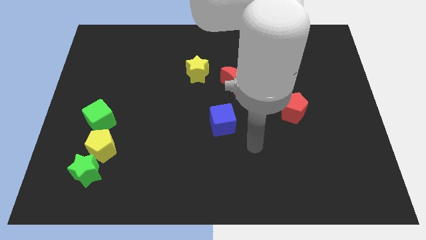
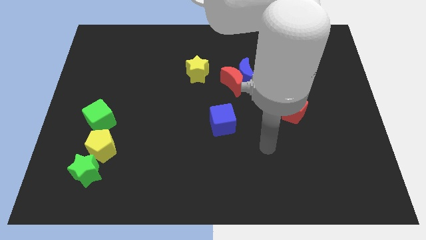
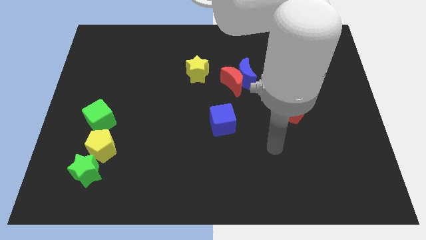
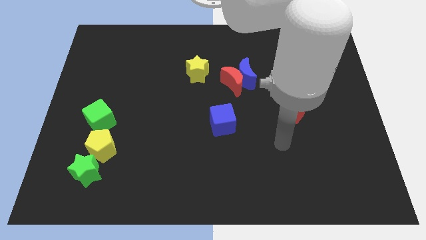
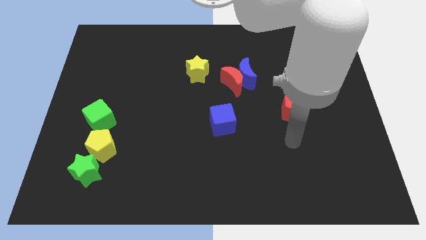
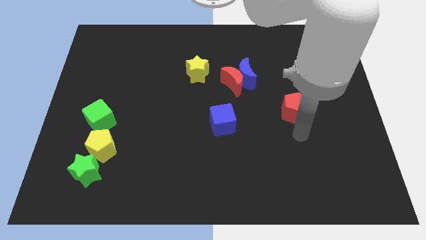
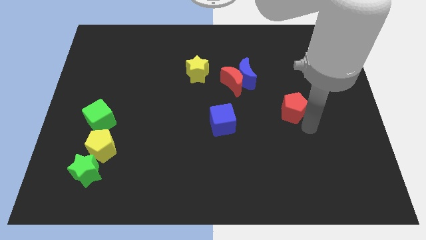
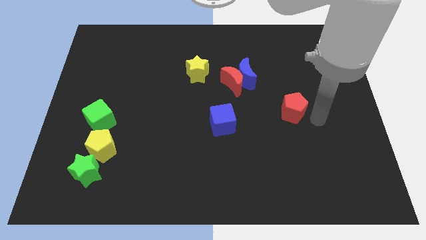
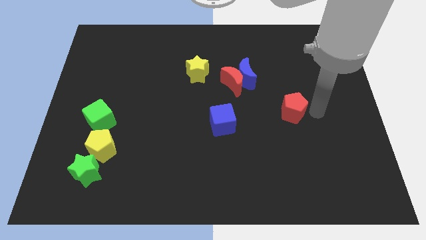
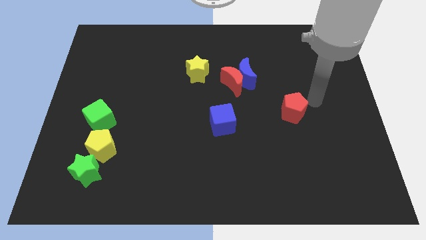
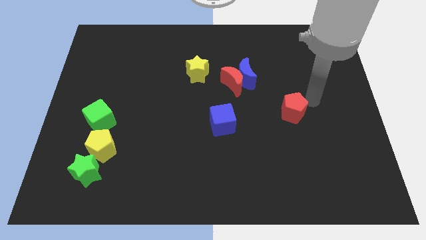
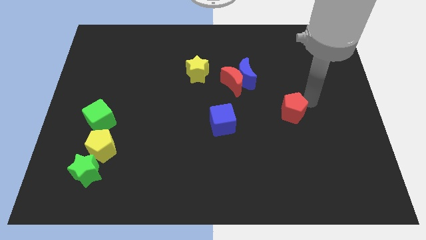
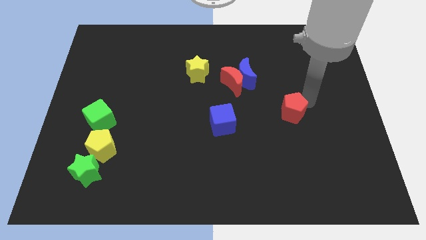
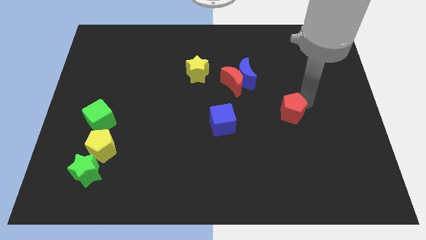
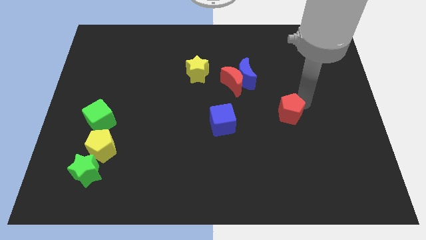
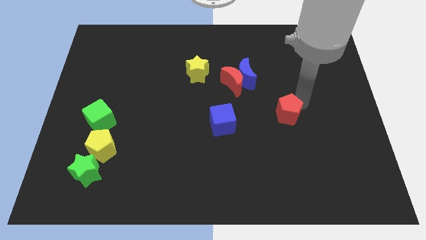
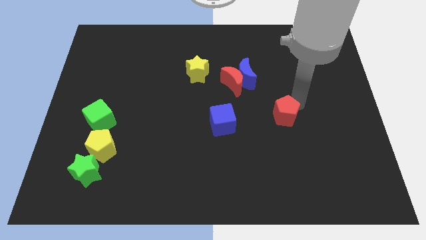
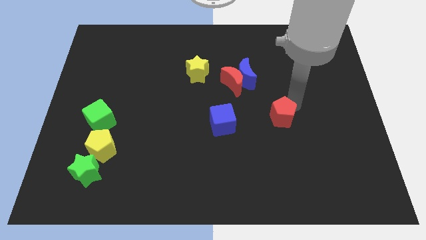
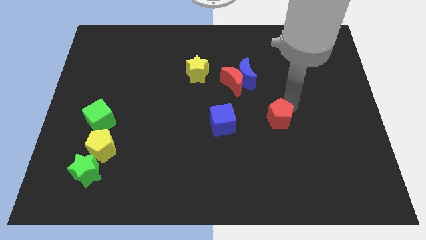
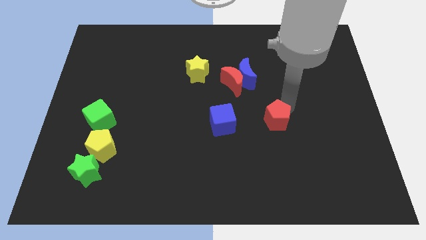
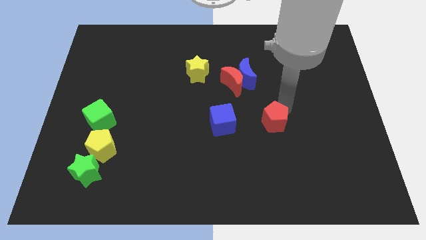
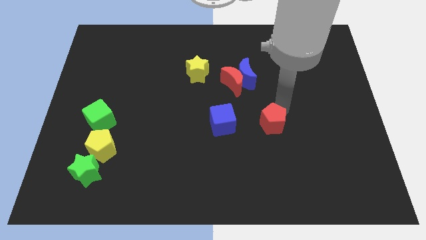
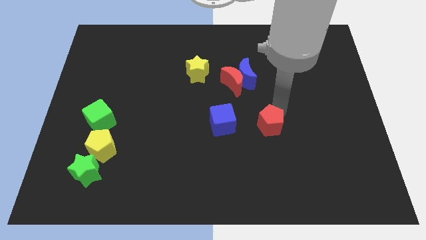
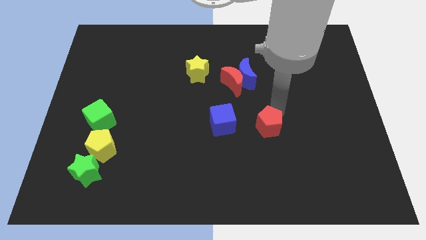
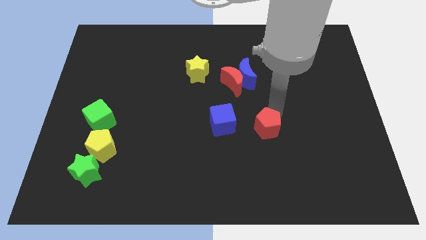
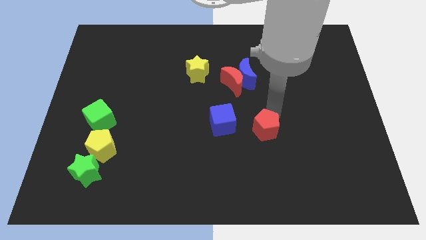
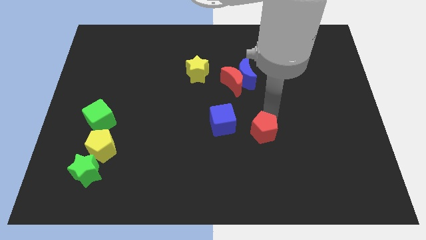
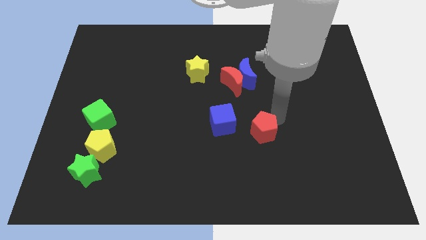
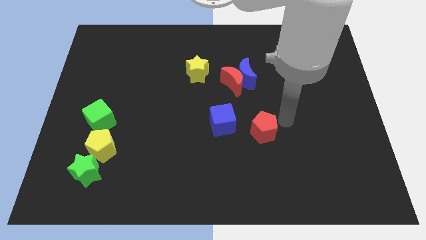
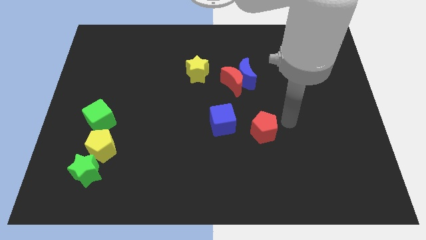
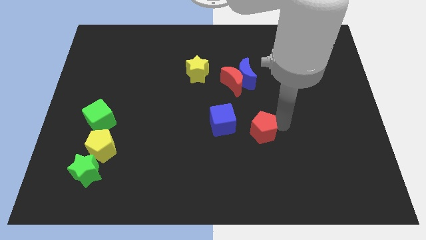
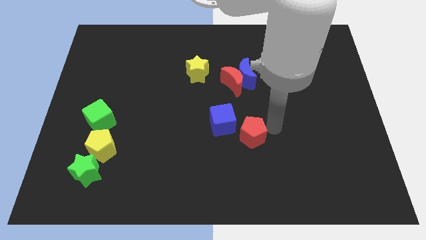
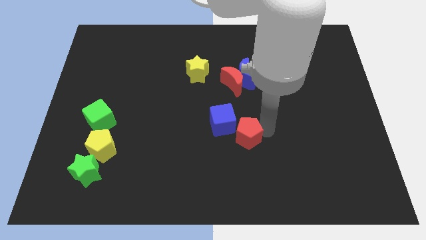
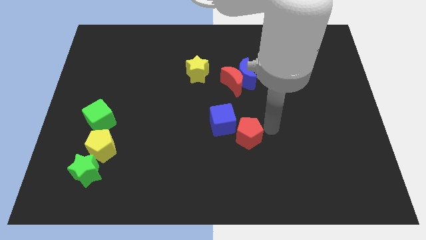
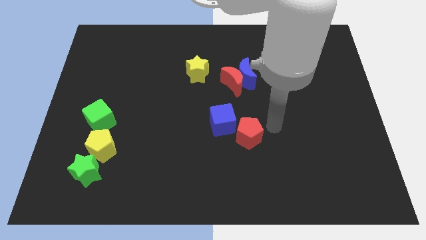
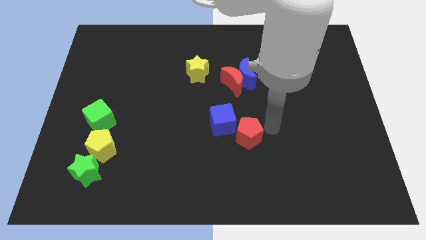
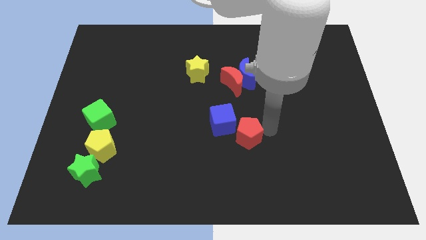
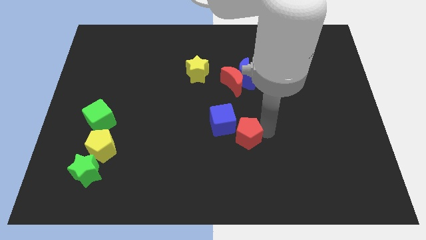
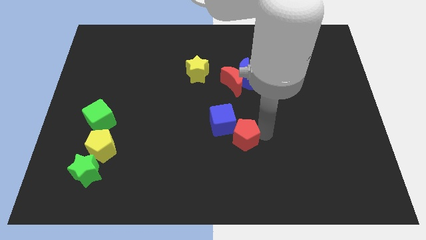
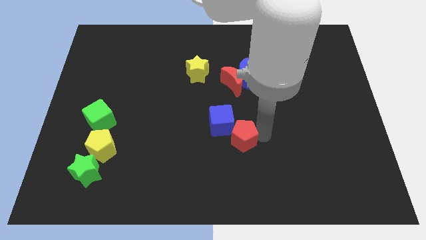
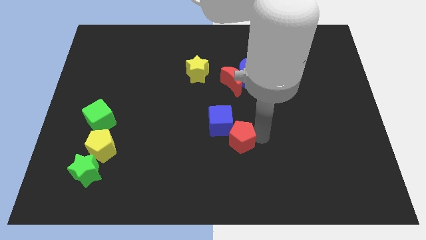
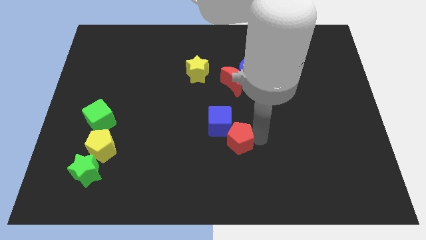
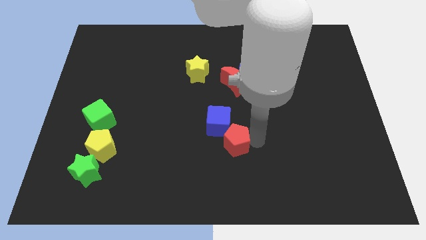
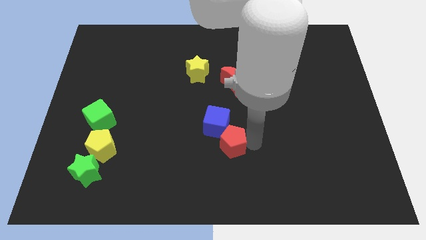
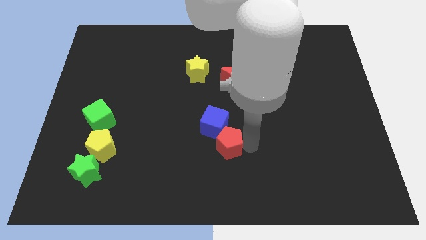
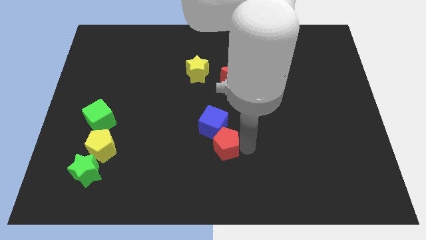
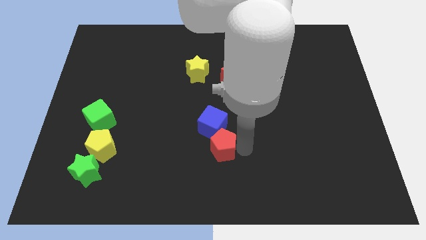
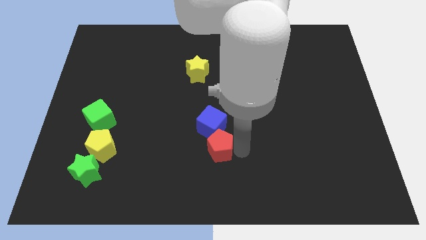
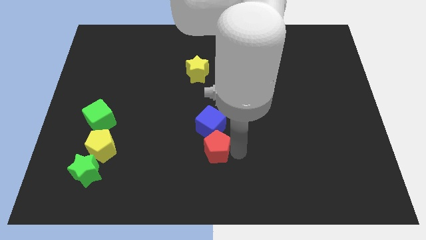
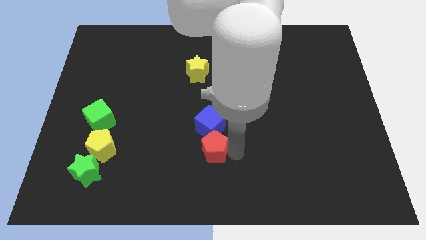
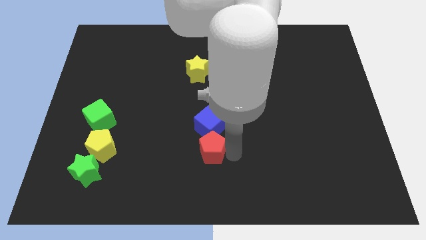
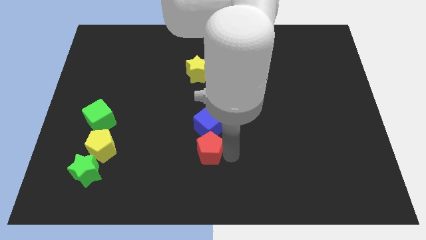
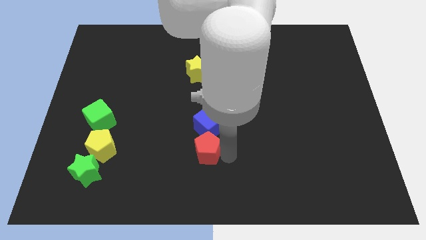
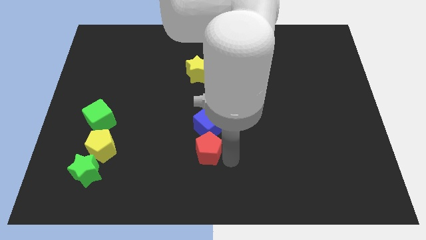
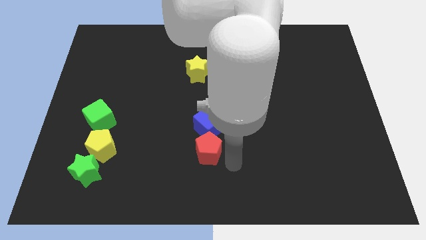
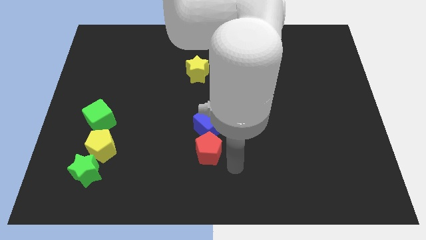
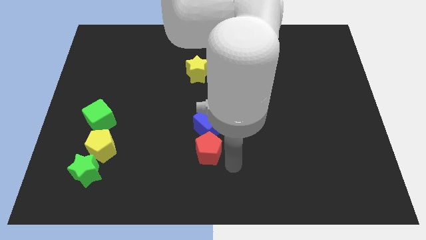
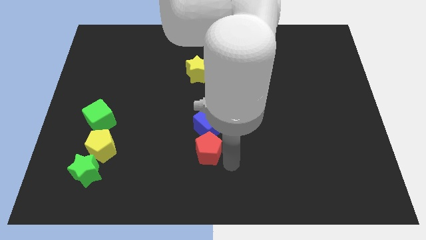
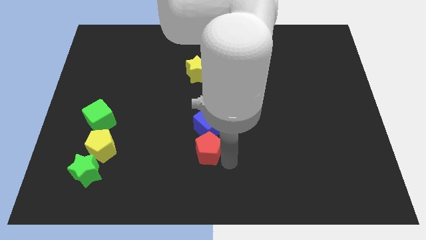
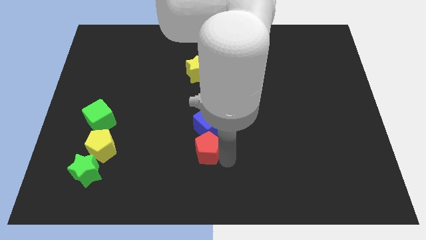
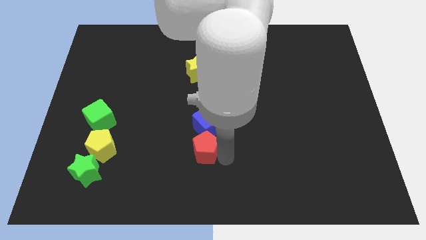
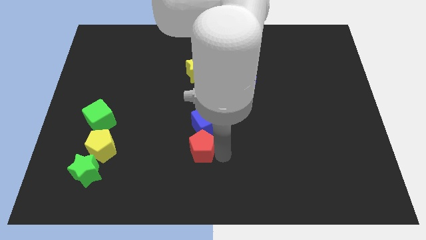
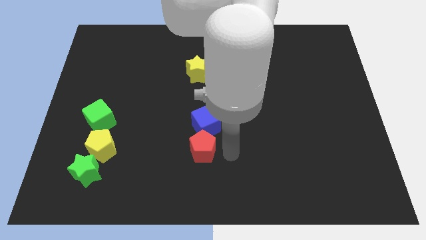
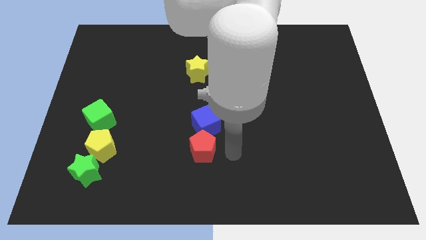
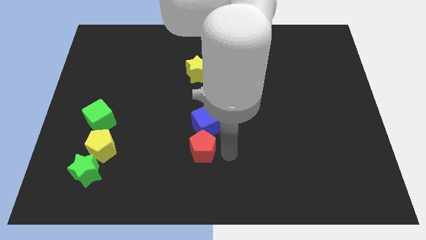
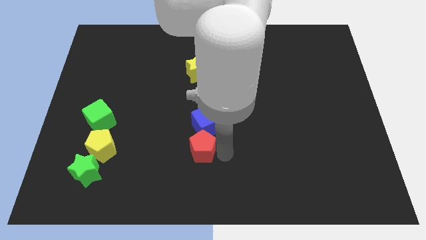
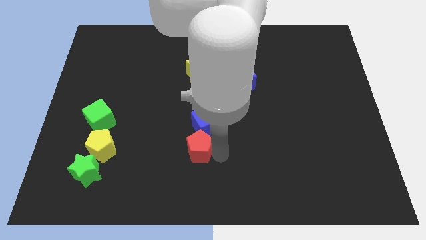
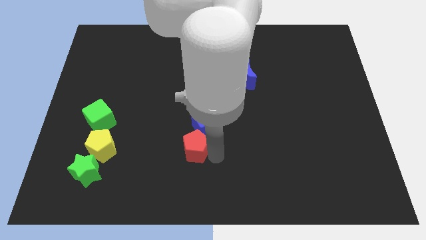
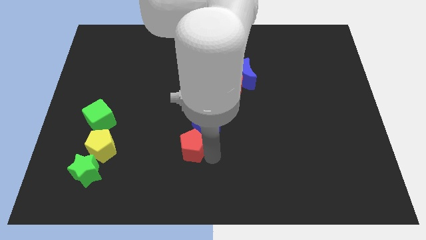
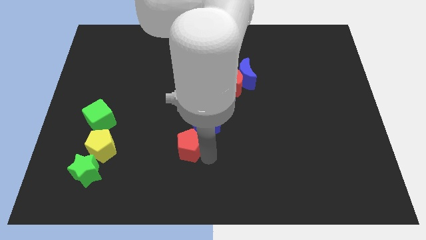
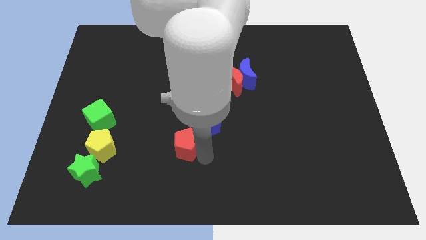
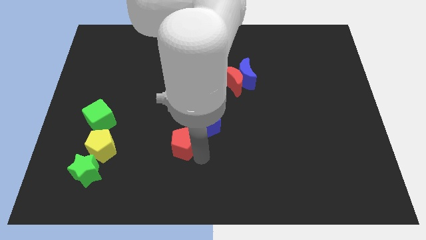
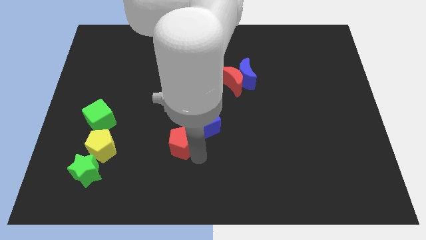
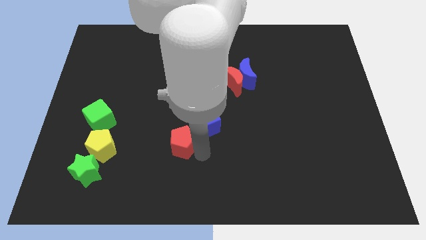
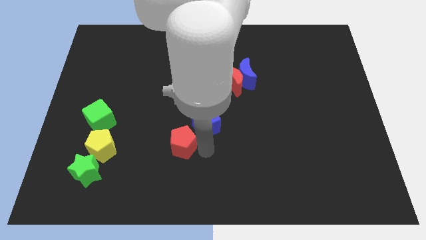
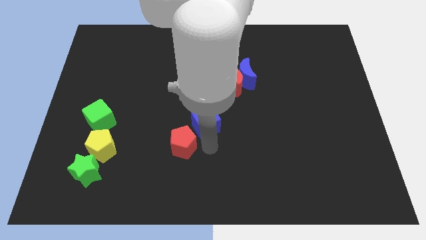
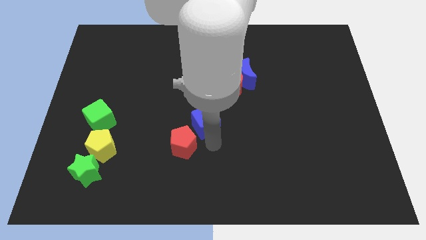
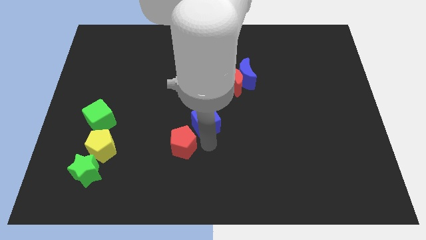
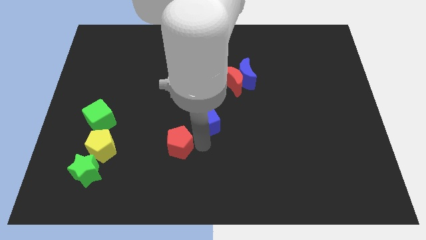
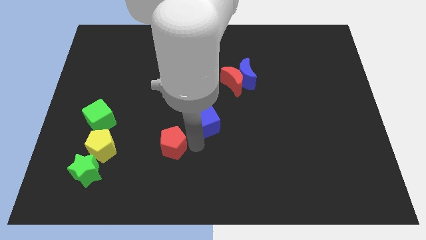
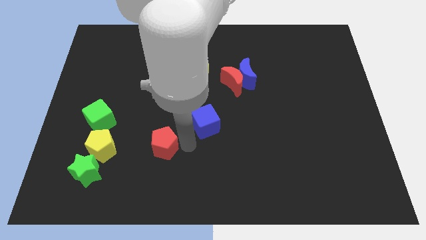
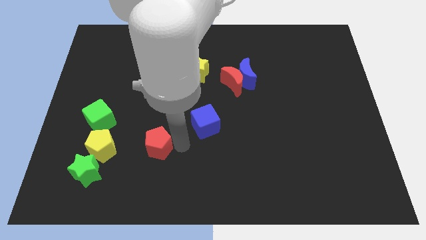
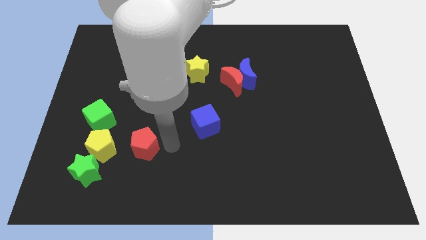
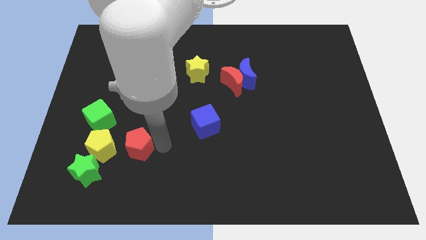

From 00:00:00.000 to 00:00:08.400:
push the red pentagon to the top right side of the green star
